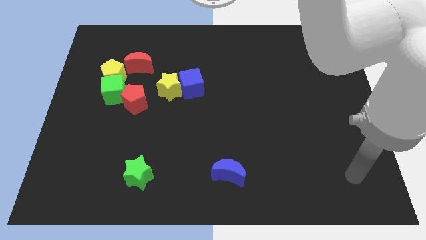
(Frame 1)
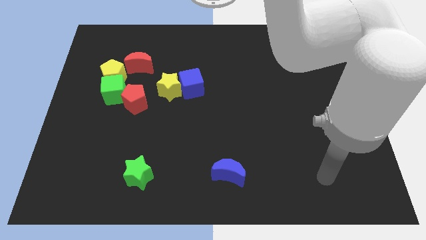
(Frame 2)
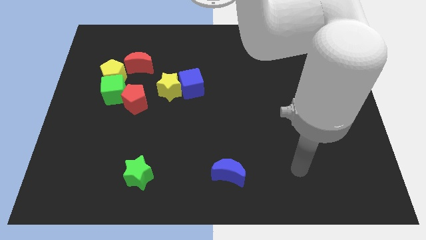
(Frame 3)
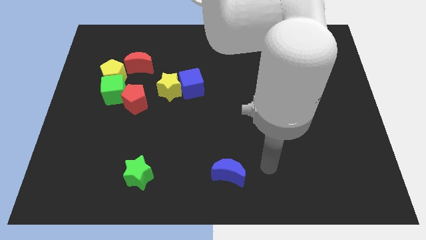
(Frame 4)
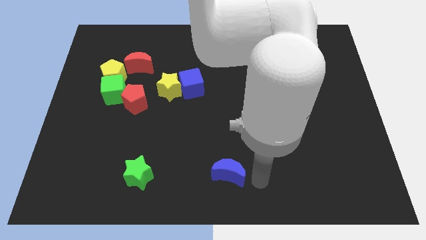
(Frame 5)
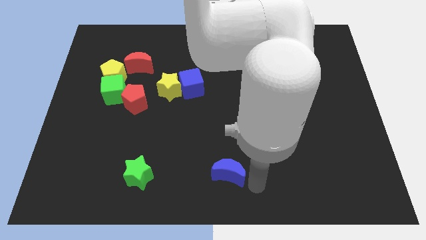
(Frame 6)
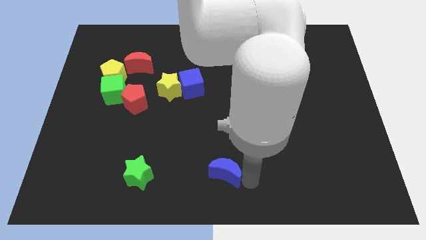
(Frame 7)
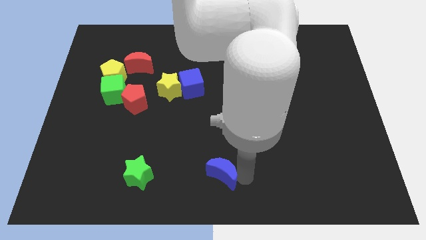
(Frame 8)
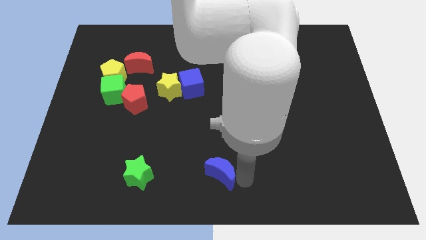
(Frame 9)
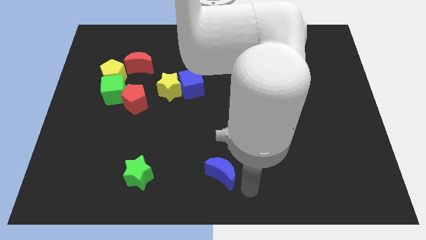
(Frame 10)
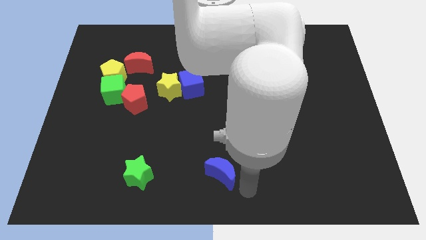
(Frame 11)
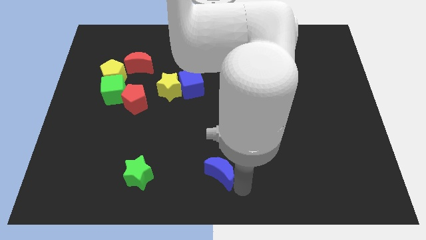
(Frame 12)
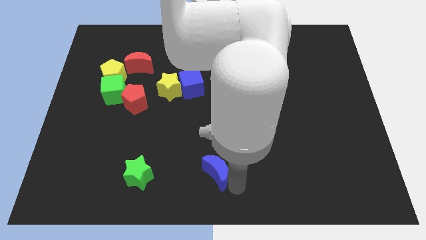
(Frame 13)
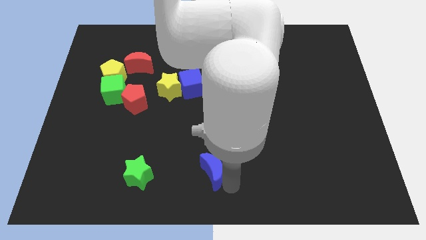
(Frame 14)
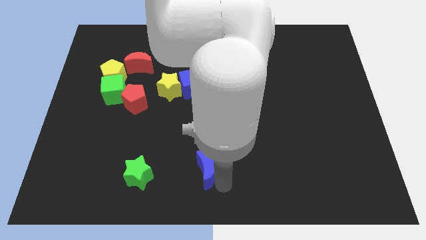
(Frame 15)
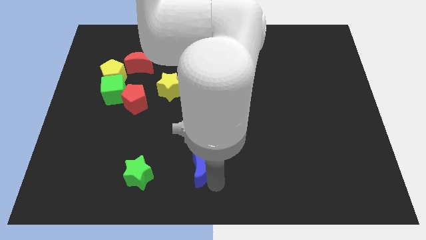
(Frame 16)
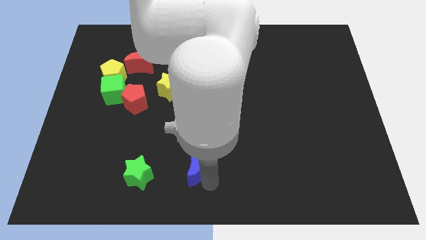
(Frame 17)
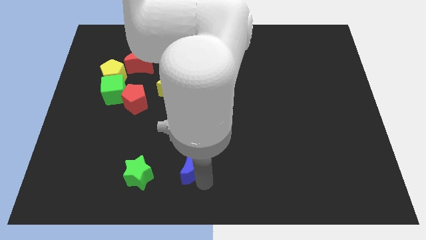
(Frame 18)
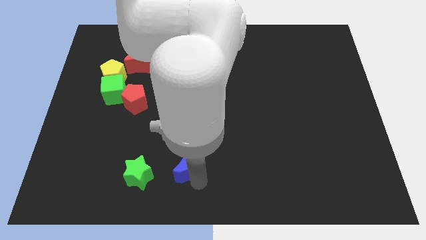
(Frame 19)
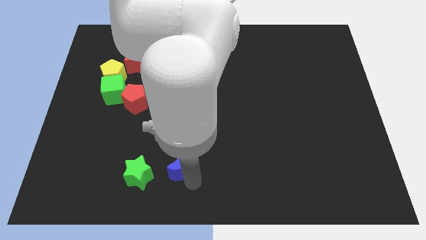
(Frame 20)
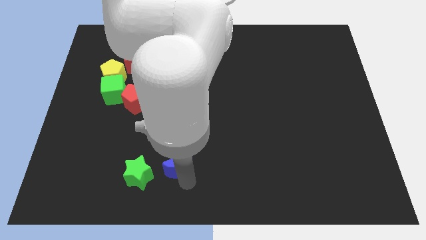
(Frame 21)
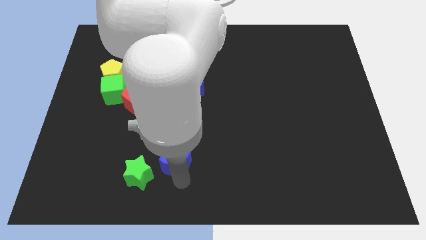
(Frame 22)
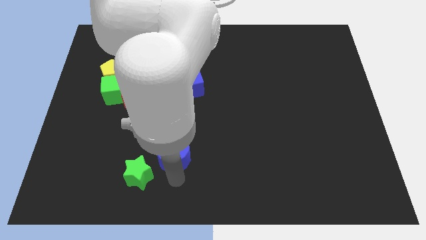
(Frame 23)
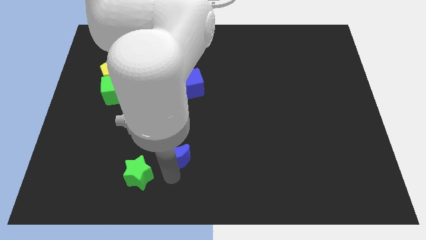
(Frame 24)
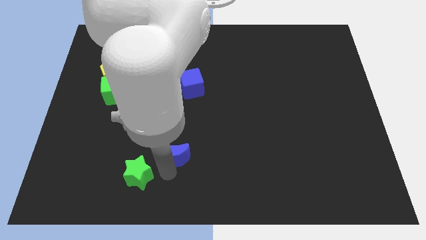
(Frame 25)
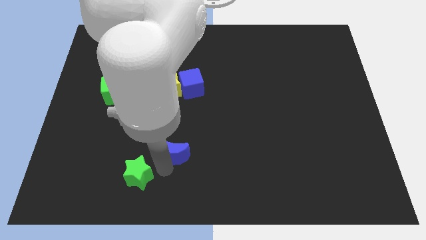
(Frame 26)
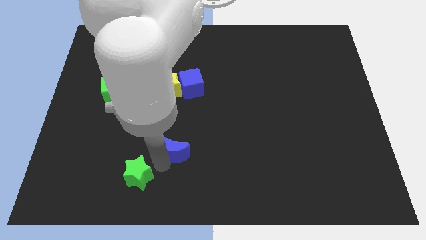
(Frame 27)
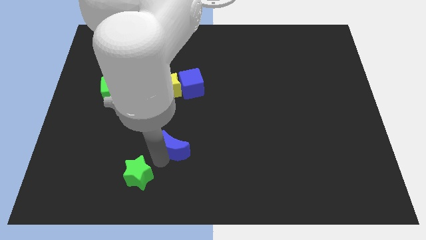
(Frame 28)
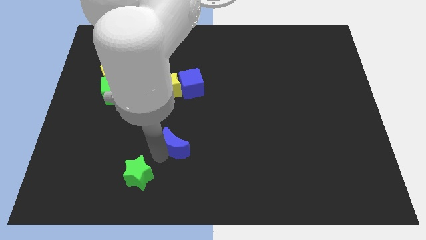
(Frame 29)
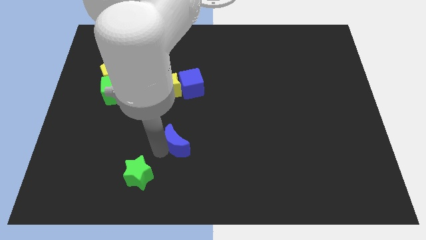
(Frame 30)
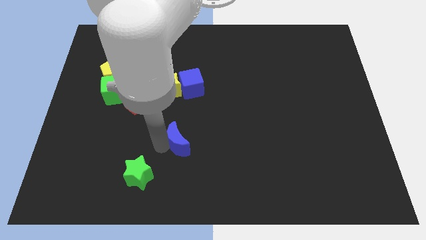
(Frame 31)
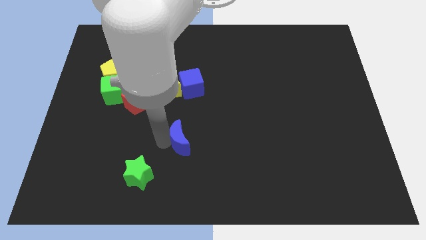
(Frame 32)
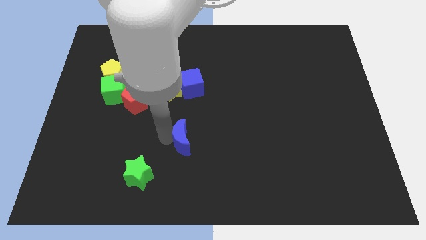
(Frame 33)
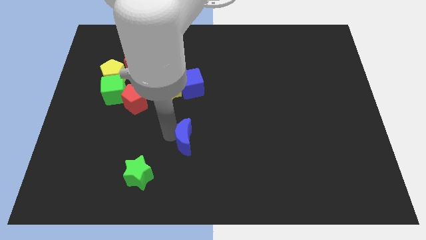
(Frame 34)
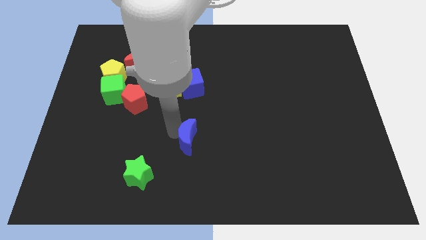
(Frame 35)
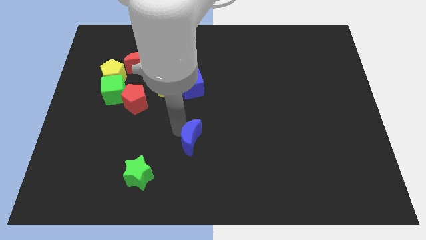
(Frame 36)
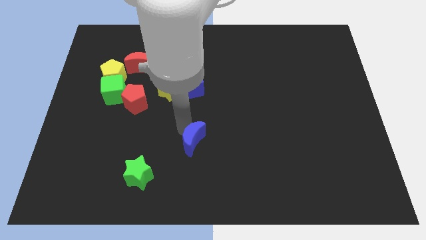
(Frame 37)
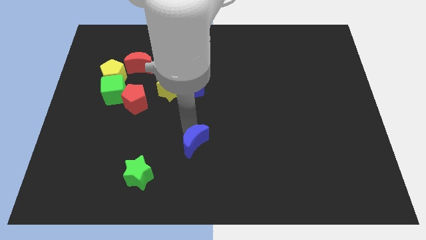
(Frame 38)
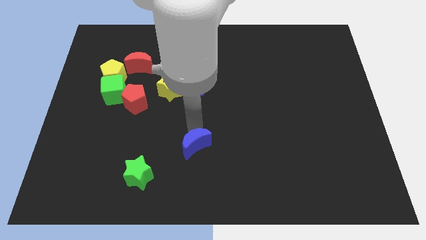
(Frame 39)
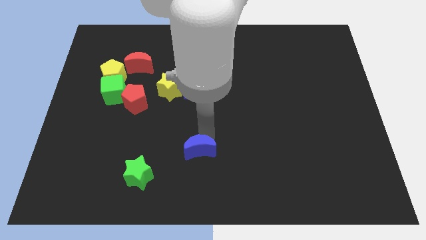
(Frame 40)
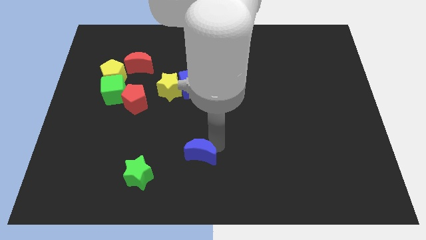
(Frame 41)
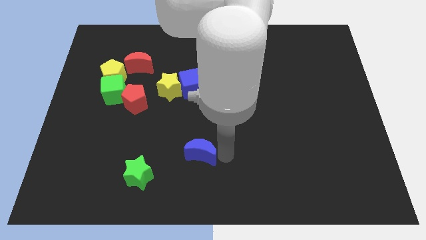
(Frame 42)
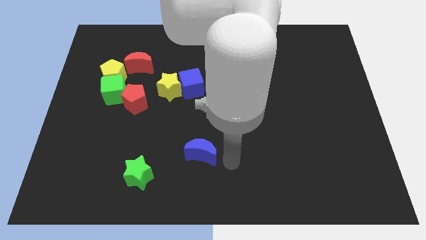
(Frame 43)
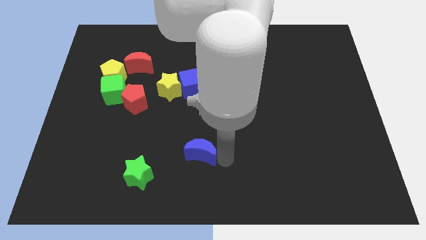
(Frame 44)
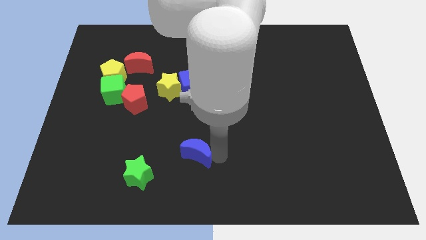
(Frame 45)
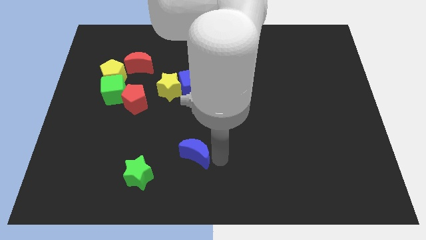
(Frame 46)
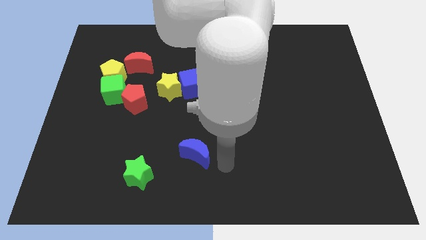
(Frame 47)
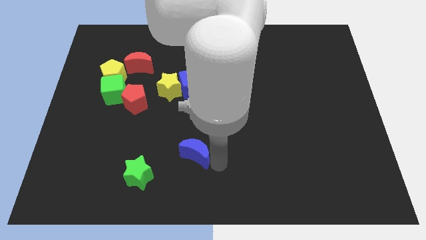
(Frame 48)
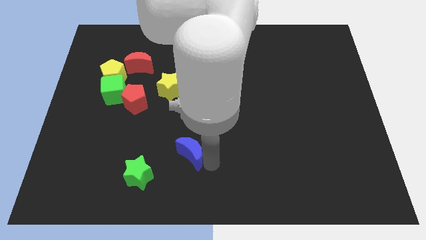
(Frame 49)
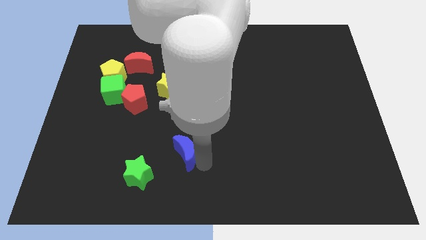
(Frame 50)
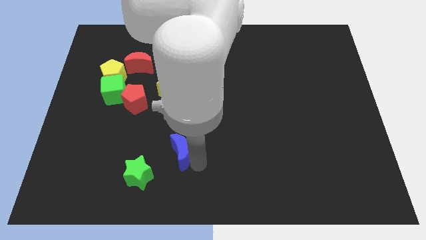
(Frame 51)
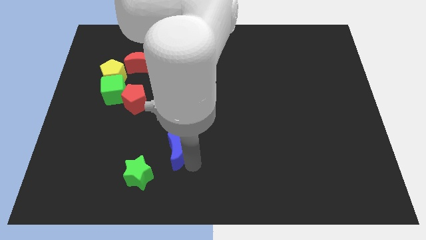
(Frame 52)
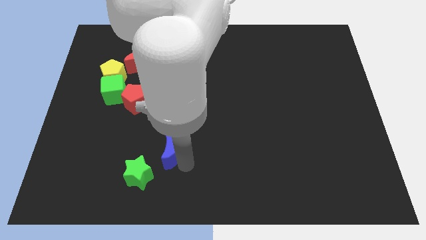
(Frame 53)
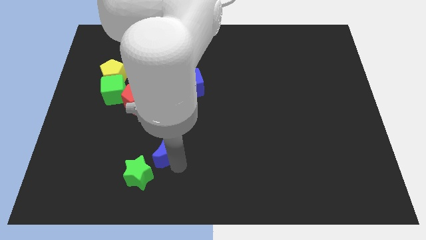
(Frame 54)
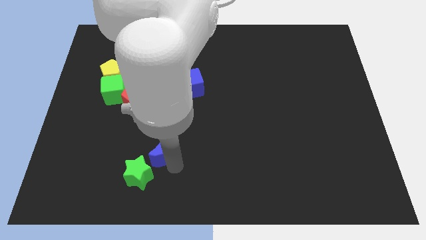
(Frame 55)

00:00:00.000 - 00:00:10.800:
slide the blue moon to the top of the green star

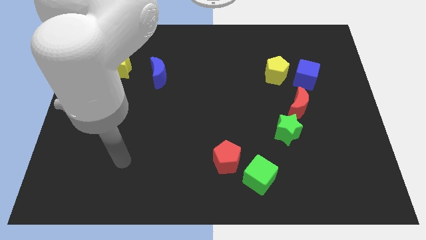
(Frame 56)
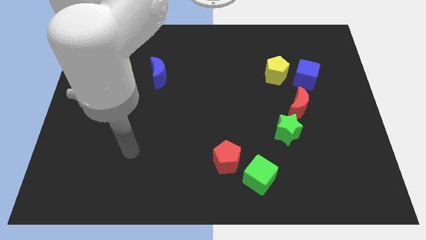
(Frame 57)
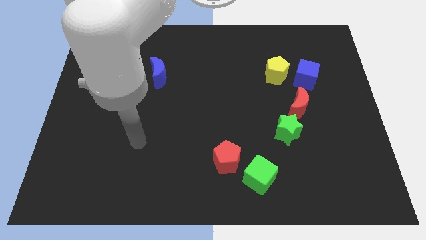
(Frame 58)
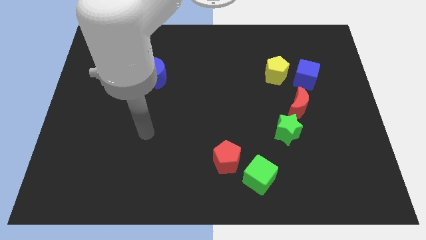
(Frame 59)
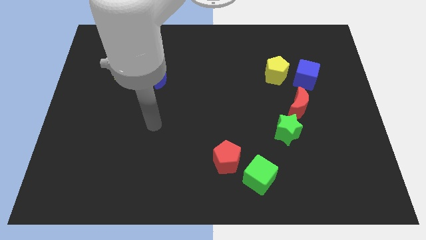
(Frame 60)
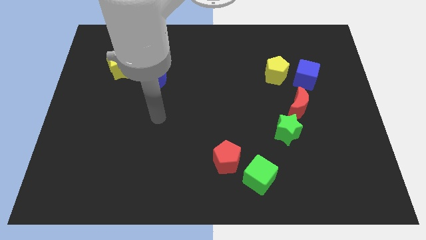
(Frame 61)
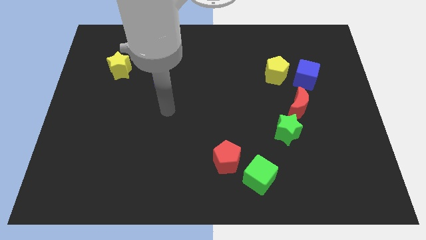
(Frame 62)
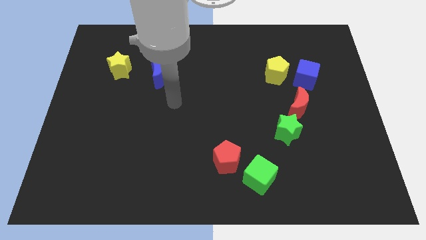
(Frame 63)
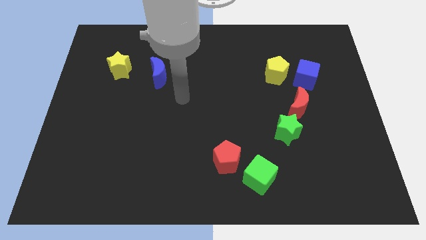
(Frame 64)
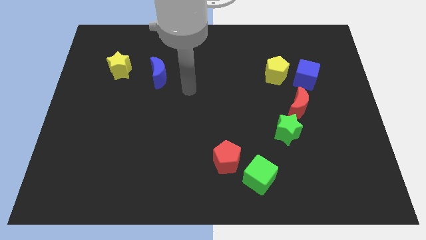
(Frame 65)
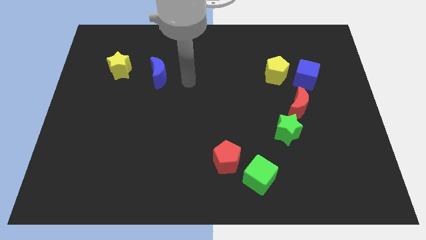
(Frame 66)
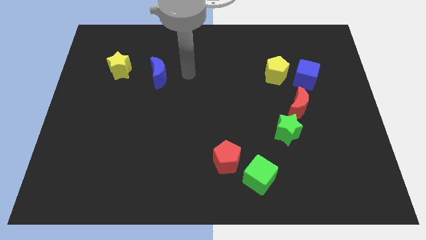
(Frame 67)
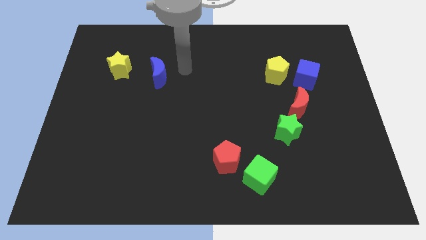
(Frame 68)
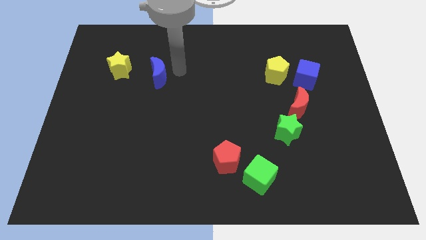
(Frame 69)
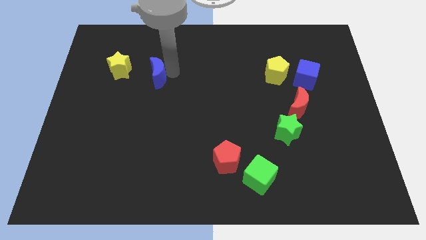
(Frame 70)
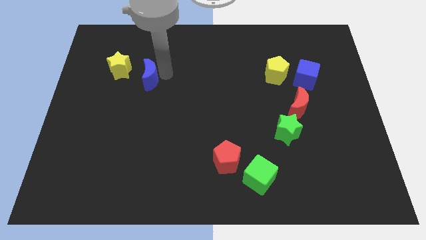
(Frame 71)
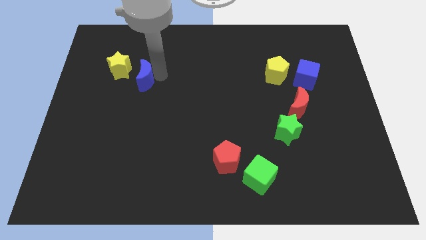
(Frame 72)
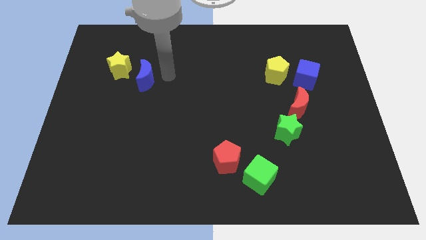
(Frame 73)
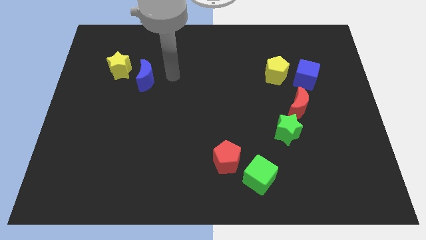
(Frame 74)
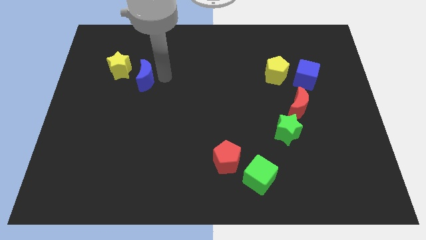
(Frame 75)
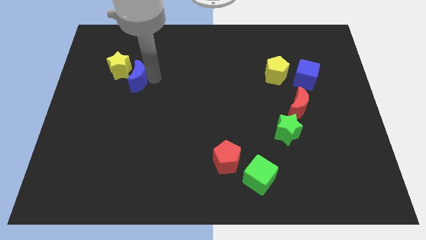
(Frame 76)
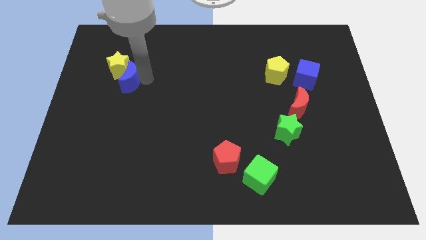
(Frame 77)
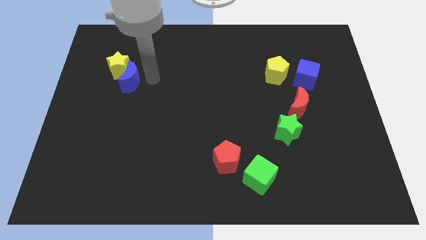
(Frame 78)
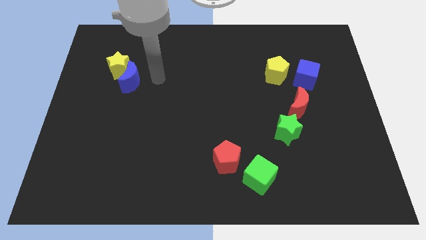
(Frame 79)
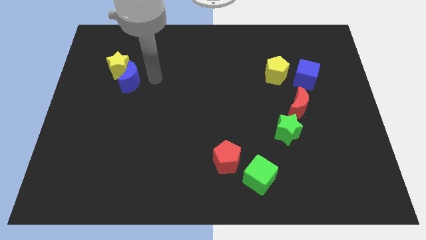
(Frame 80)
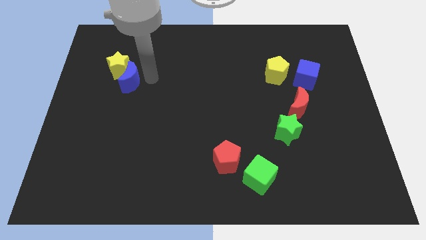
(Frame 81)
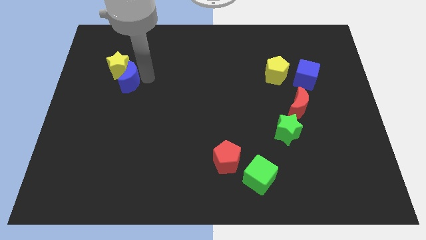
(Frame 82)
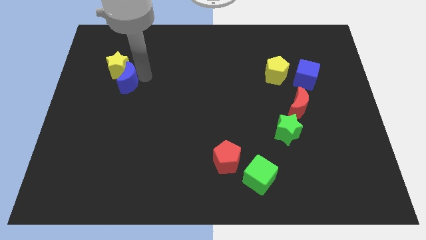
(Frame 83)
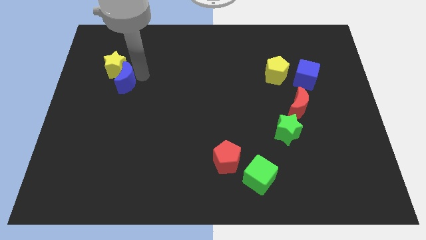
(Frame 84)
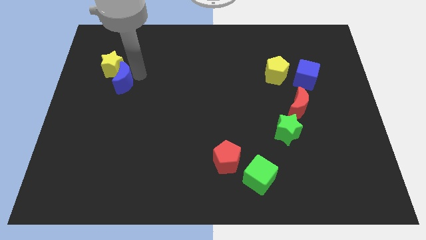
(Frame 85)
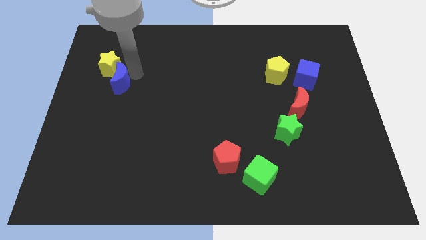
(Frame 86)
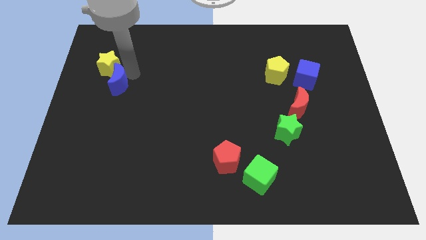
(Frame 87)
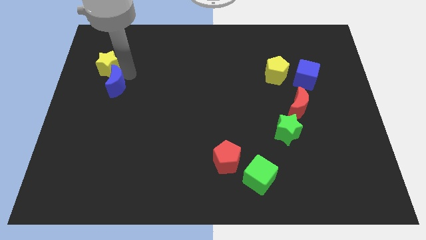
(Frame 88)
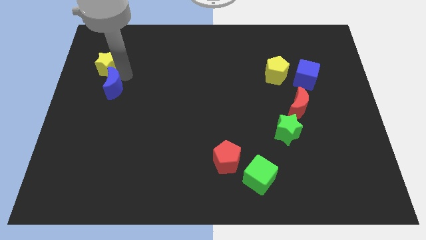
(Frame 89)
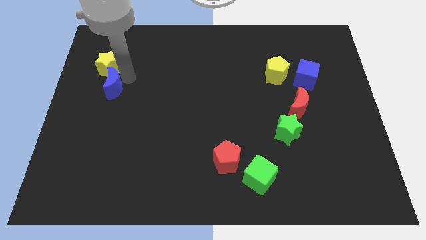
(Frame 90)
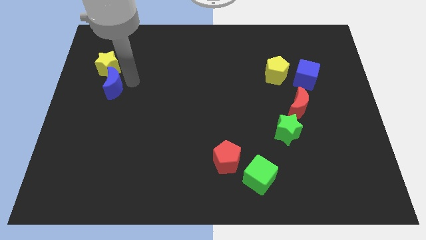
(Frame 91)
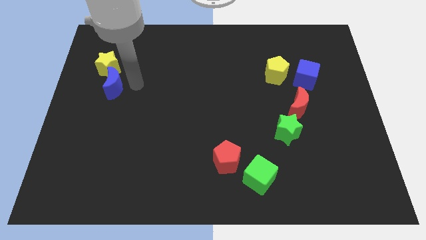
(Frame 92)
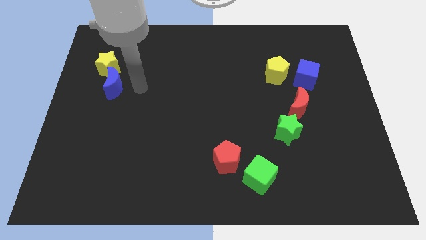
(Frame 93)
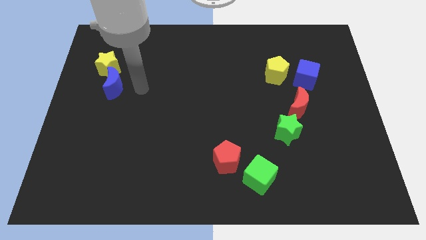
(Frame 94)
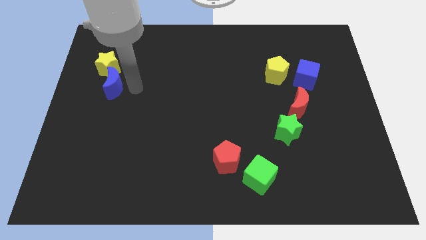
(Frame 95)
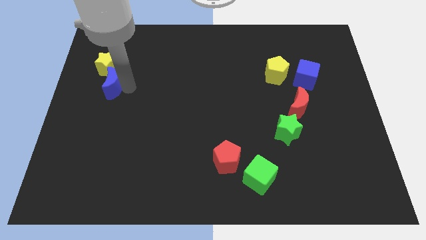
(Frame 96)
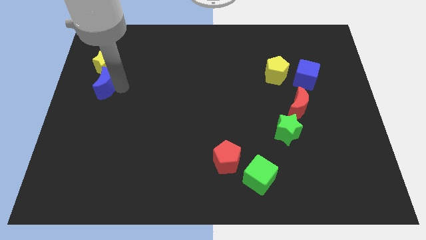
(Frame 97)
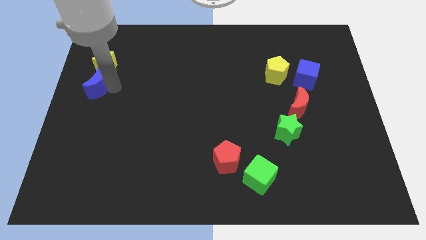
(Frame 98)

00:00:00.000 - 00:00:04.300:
slide the blue moon to the bottom left side of the yellow star
